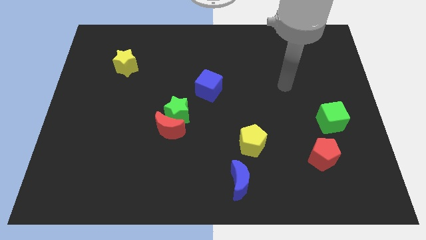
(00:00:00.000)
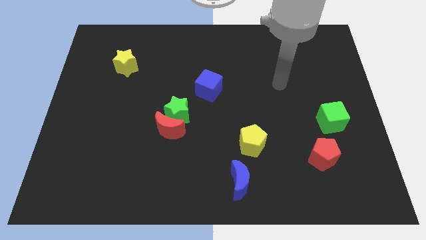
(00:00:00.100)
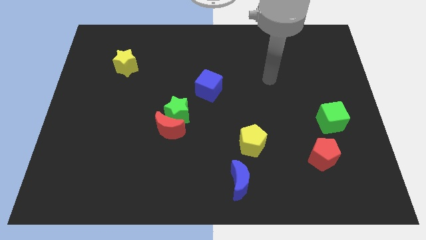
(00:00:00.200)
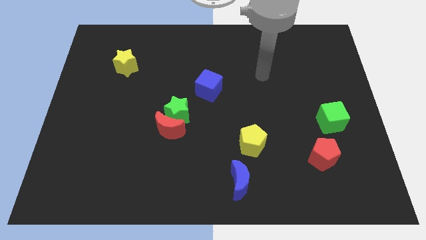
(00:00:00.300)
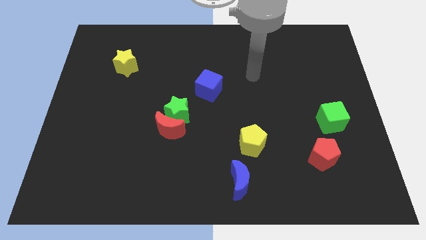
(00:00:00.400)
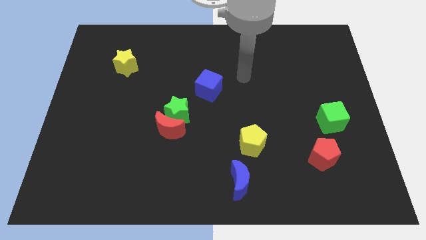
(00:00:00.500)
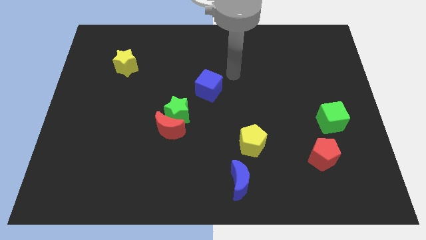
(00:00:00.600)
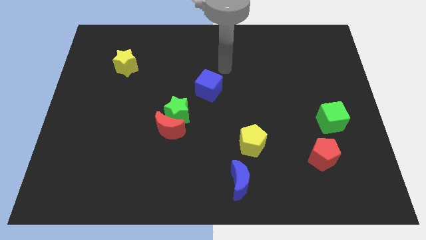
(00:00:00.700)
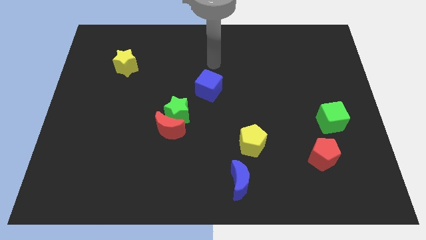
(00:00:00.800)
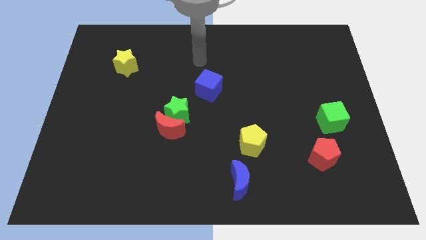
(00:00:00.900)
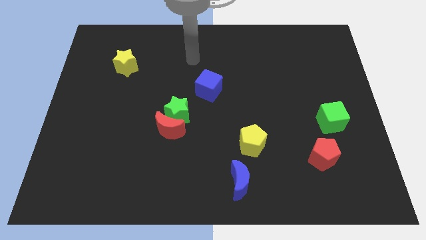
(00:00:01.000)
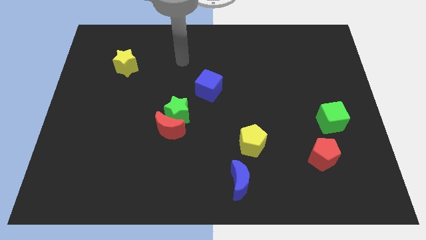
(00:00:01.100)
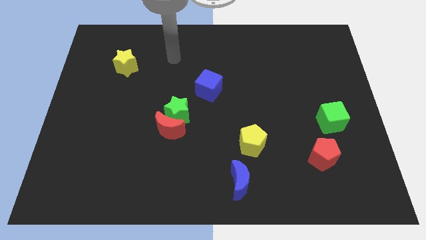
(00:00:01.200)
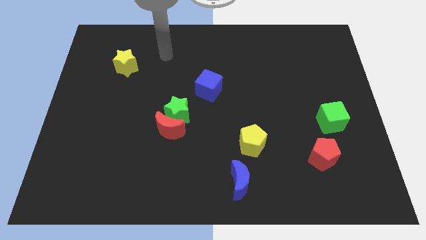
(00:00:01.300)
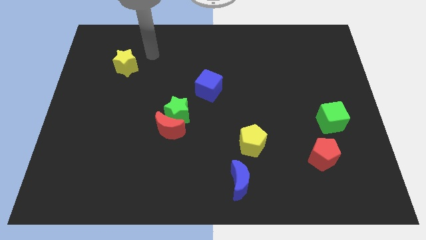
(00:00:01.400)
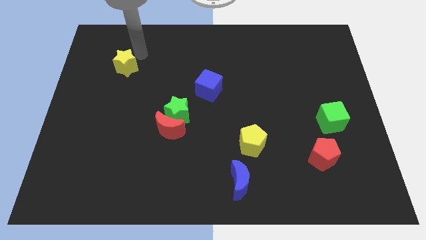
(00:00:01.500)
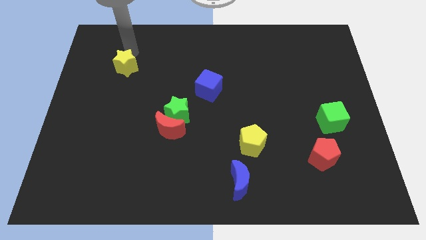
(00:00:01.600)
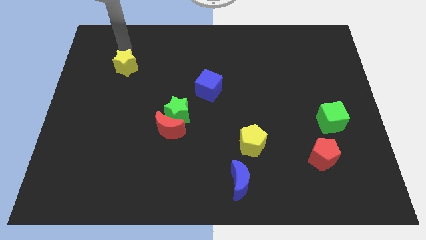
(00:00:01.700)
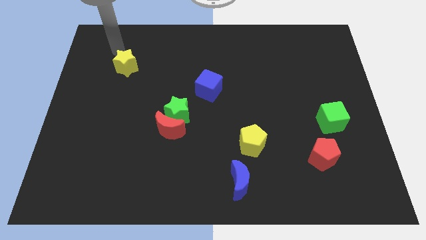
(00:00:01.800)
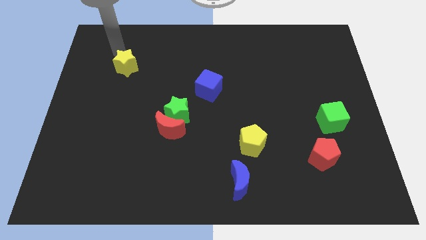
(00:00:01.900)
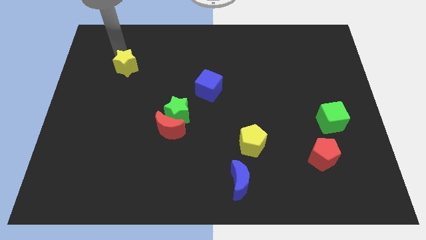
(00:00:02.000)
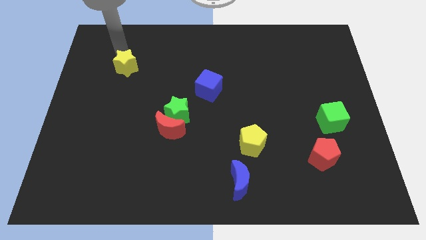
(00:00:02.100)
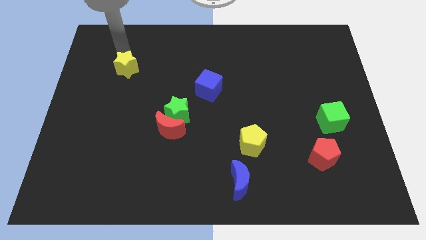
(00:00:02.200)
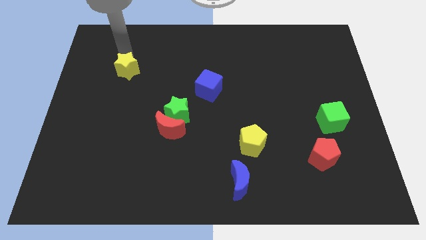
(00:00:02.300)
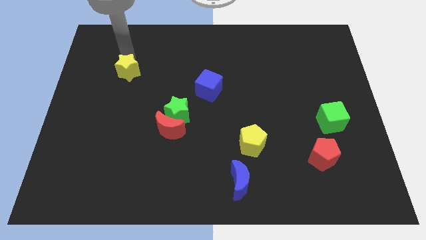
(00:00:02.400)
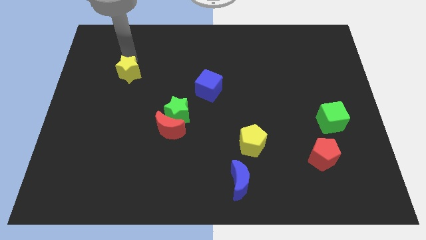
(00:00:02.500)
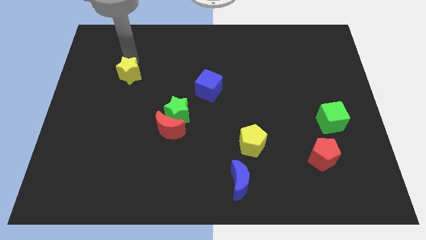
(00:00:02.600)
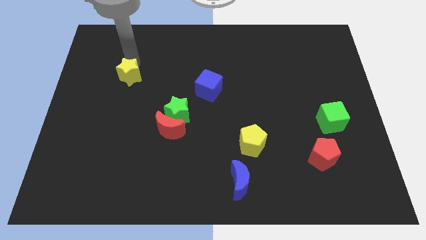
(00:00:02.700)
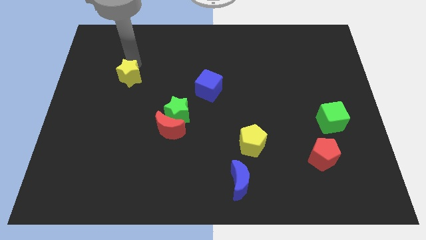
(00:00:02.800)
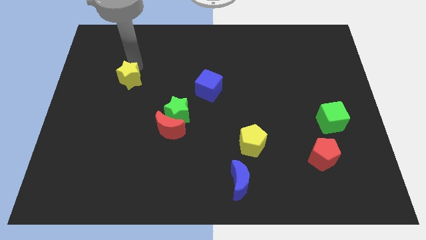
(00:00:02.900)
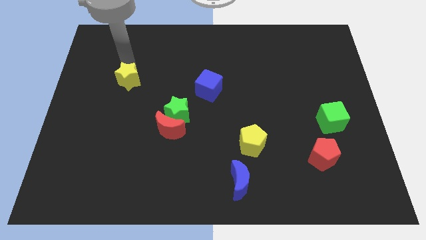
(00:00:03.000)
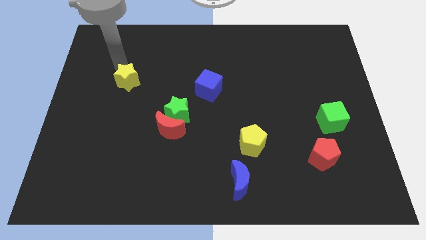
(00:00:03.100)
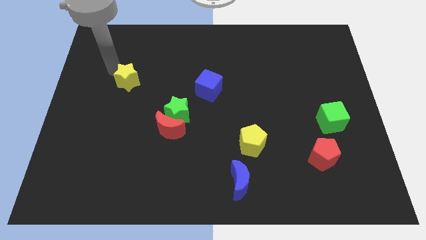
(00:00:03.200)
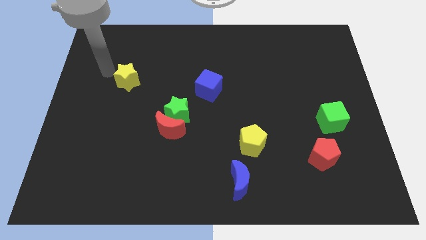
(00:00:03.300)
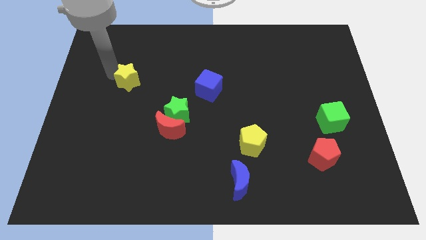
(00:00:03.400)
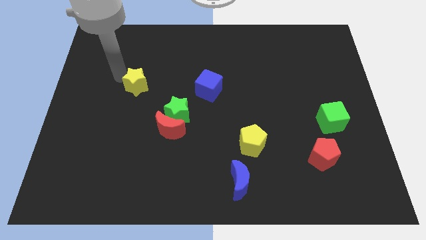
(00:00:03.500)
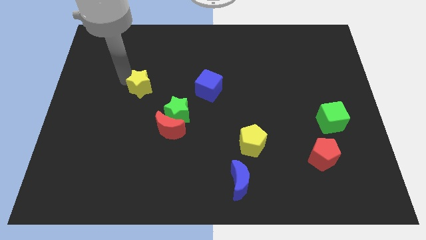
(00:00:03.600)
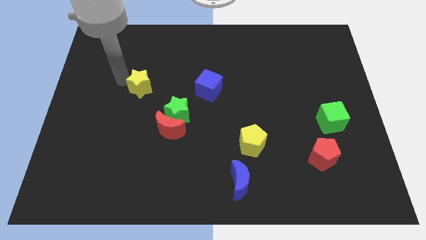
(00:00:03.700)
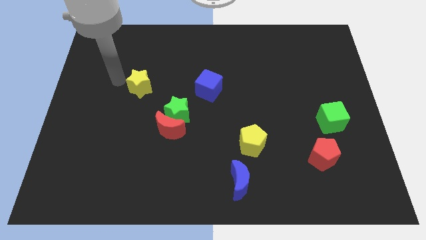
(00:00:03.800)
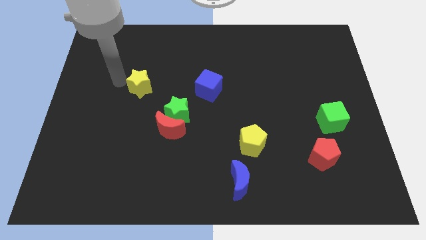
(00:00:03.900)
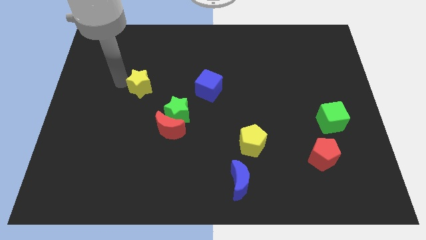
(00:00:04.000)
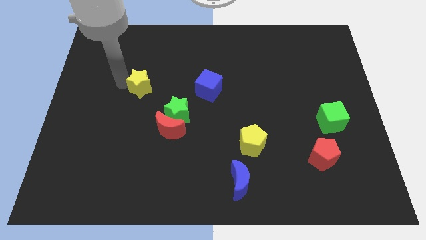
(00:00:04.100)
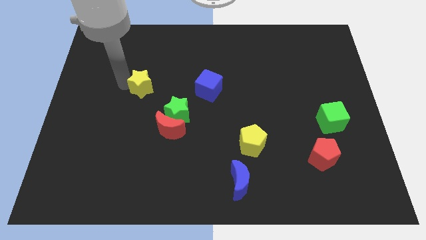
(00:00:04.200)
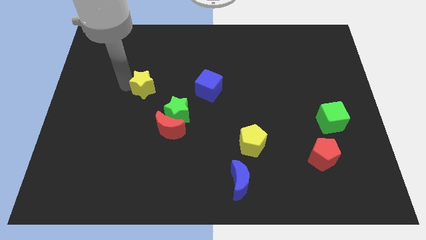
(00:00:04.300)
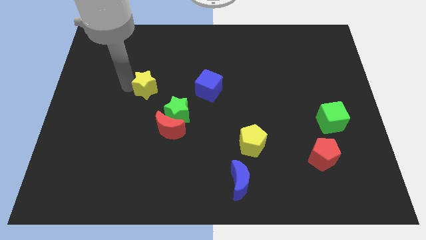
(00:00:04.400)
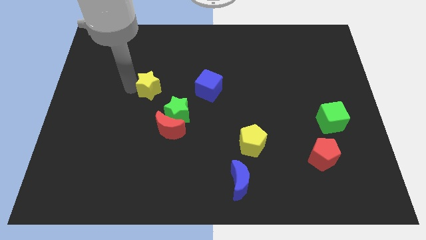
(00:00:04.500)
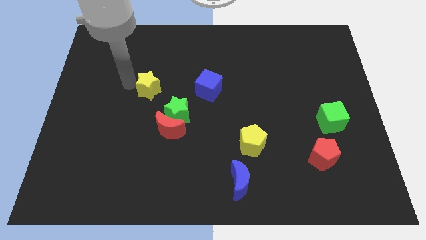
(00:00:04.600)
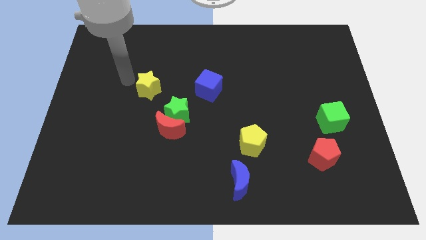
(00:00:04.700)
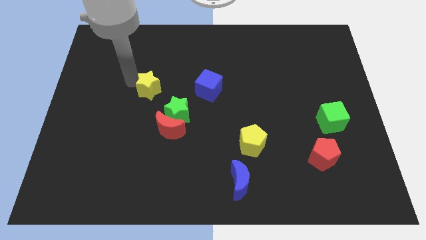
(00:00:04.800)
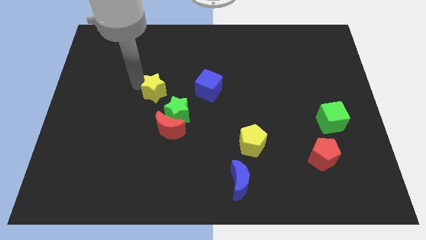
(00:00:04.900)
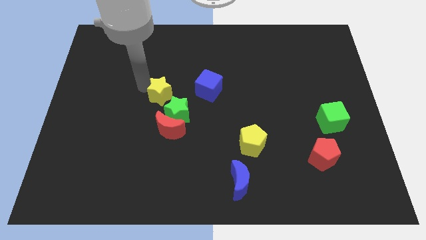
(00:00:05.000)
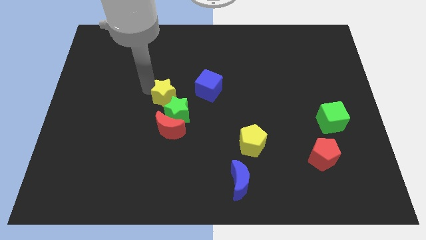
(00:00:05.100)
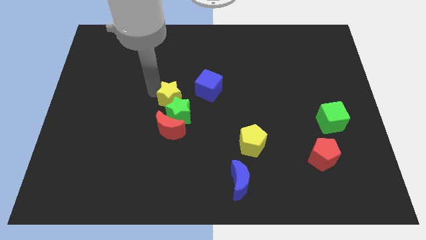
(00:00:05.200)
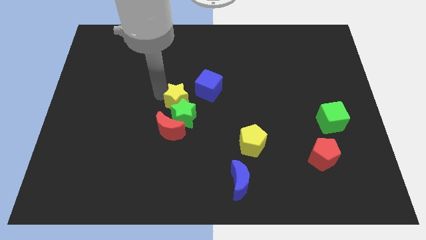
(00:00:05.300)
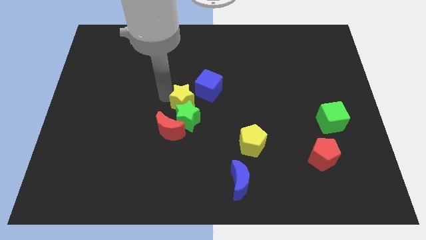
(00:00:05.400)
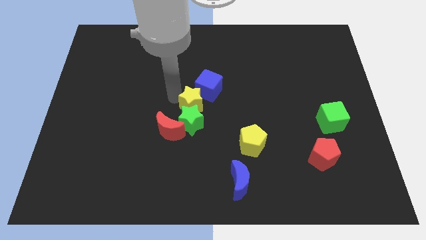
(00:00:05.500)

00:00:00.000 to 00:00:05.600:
move the yellow star to the bottom of the blue cube

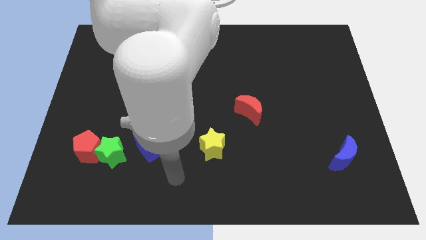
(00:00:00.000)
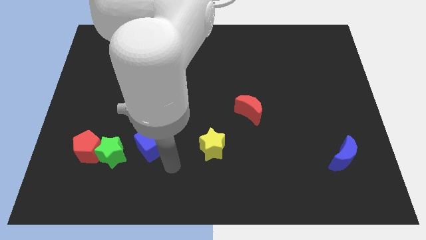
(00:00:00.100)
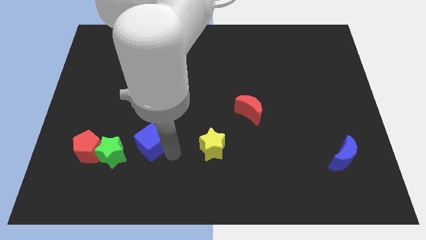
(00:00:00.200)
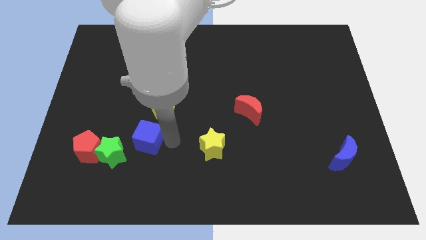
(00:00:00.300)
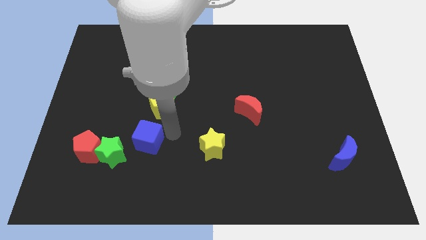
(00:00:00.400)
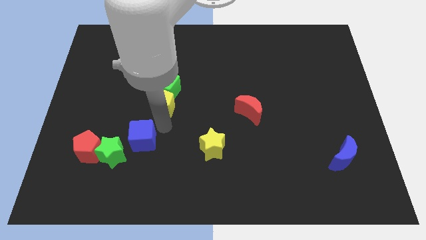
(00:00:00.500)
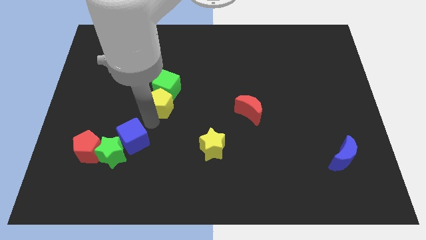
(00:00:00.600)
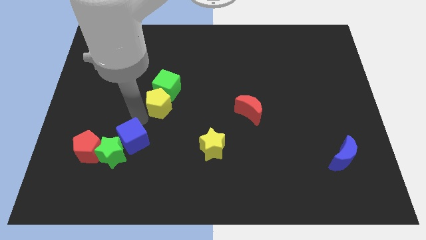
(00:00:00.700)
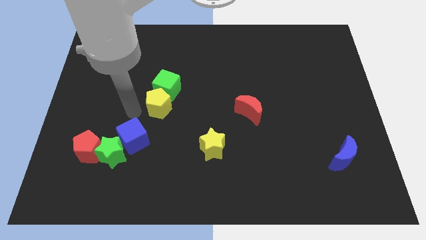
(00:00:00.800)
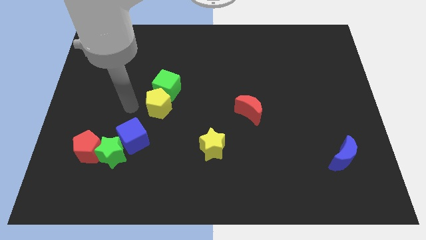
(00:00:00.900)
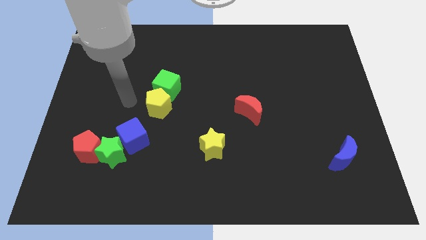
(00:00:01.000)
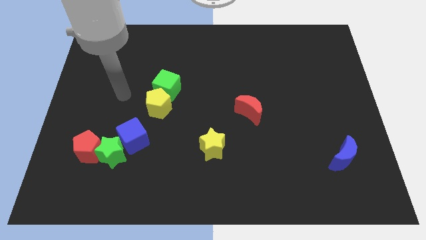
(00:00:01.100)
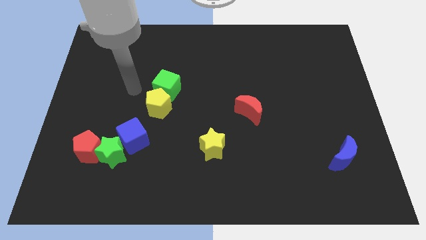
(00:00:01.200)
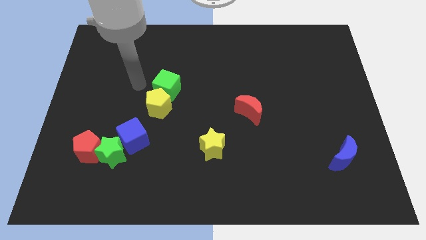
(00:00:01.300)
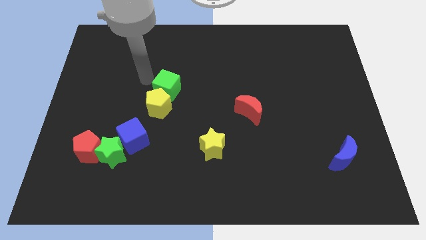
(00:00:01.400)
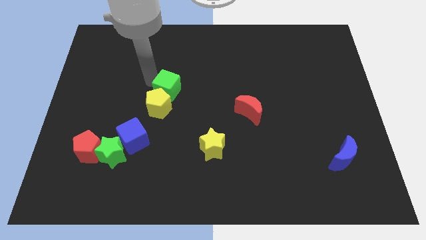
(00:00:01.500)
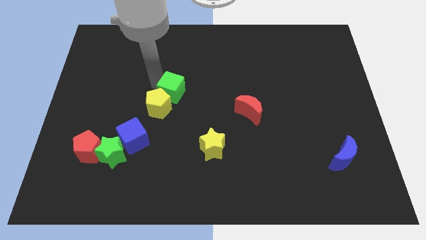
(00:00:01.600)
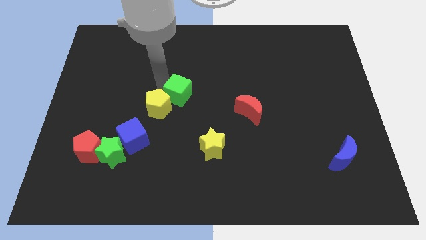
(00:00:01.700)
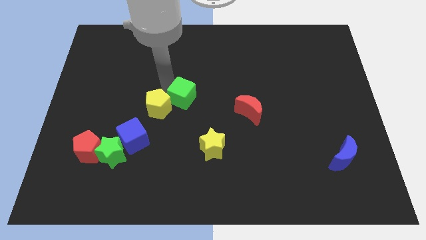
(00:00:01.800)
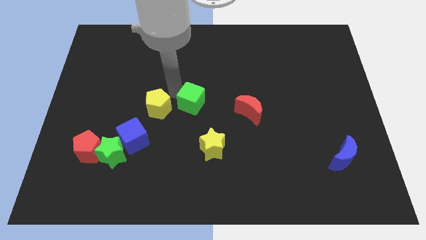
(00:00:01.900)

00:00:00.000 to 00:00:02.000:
slide the green cube to the top side of the yellow star
